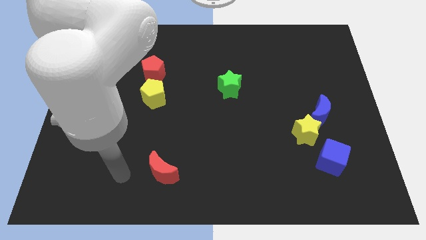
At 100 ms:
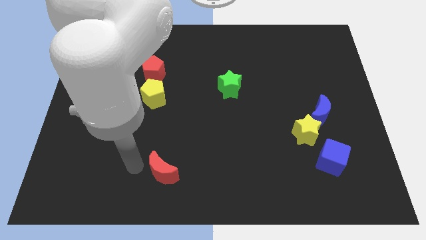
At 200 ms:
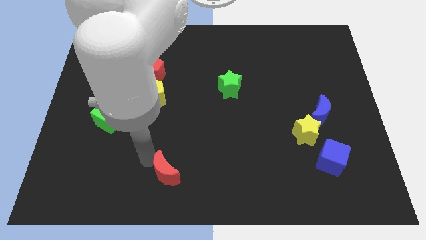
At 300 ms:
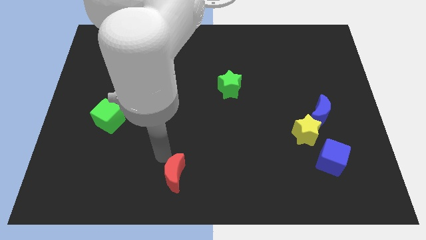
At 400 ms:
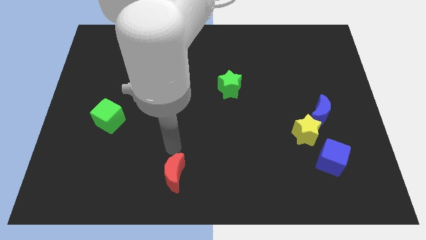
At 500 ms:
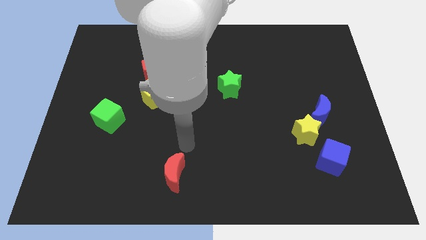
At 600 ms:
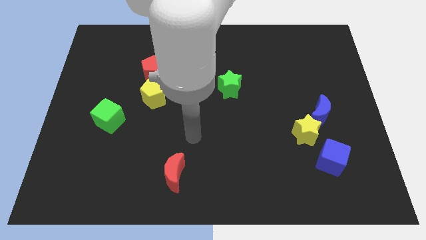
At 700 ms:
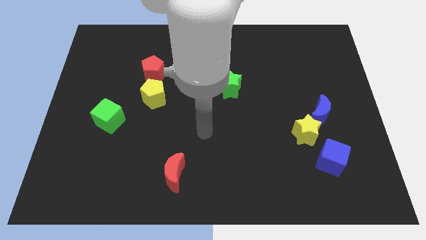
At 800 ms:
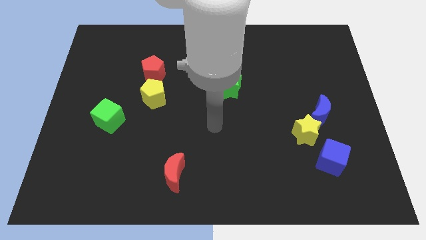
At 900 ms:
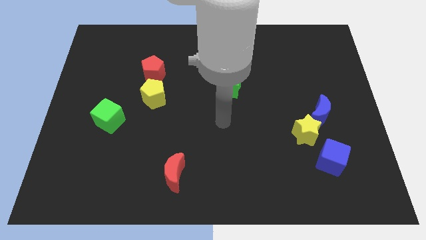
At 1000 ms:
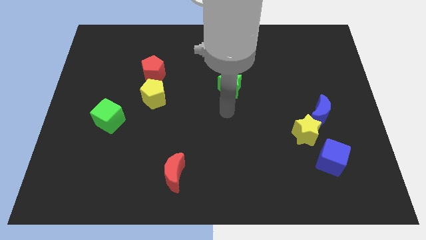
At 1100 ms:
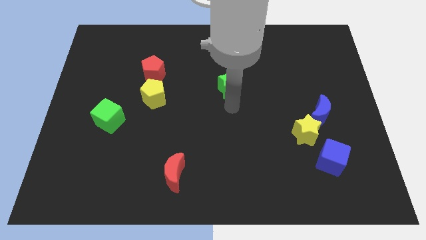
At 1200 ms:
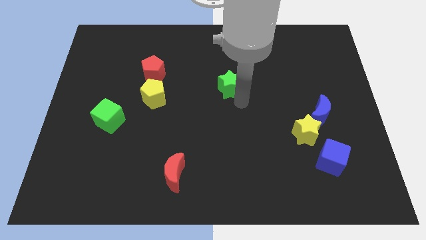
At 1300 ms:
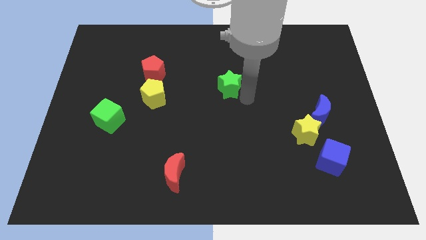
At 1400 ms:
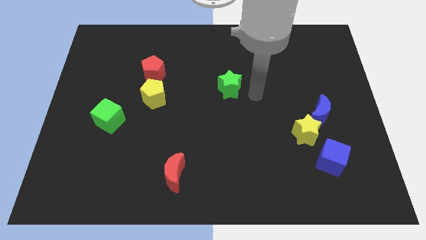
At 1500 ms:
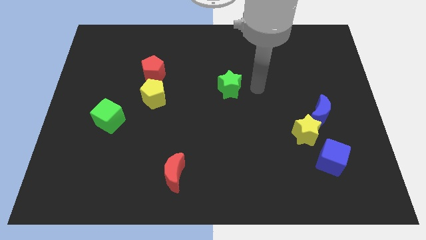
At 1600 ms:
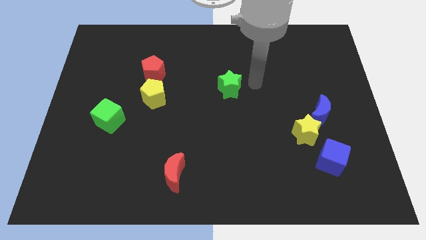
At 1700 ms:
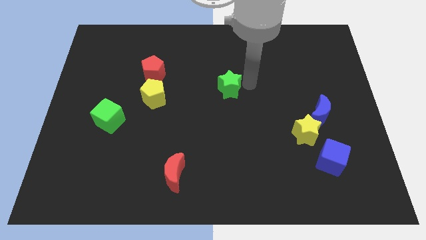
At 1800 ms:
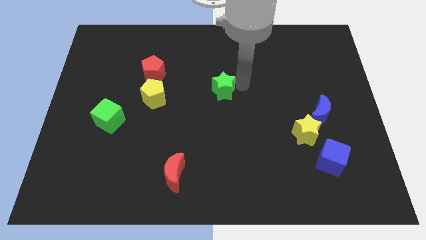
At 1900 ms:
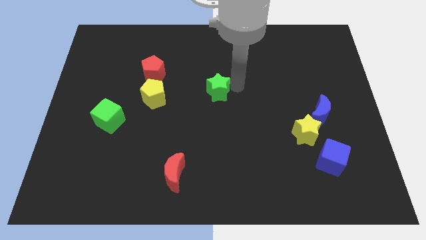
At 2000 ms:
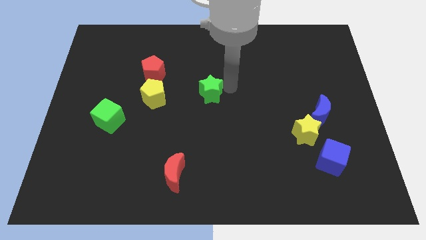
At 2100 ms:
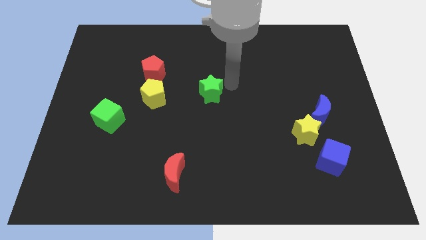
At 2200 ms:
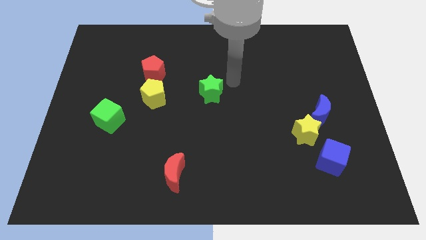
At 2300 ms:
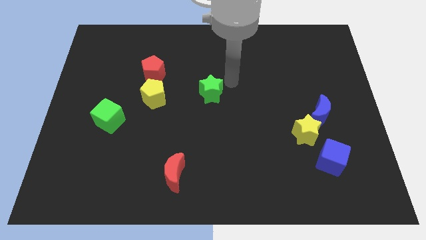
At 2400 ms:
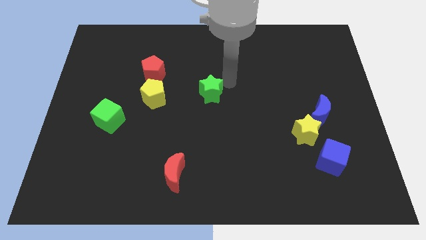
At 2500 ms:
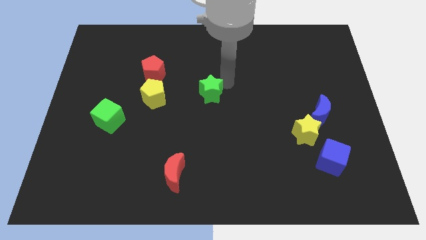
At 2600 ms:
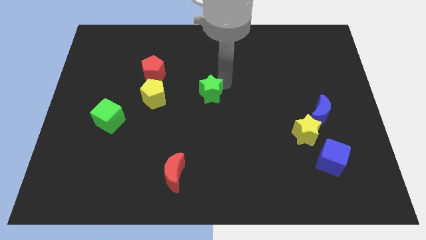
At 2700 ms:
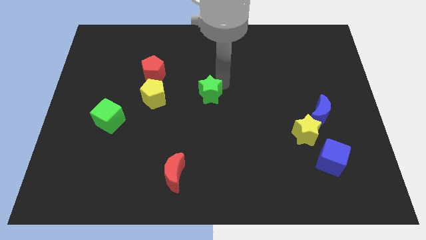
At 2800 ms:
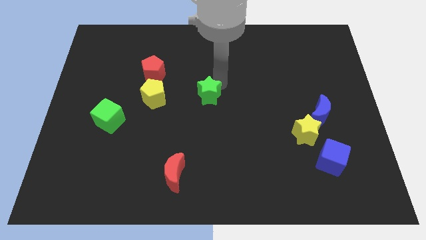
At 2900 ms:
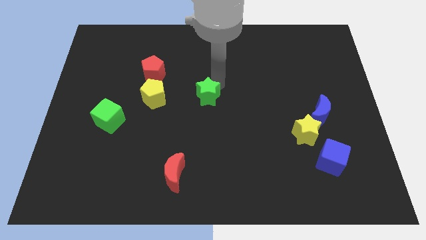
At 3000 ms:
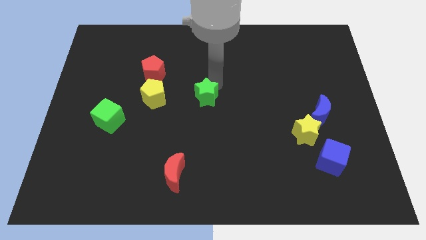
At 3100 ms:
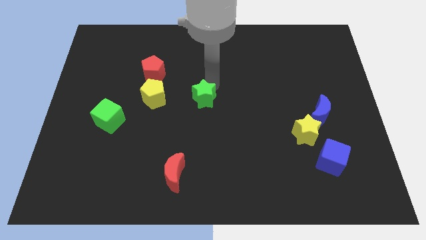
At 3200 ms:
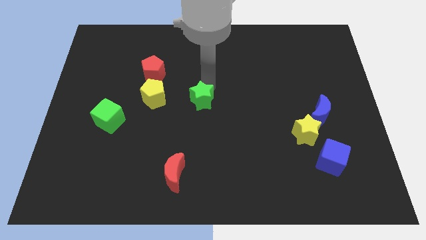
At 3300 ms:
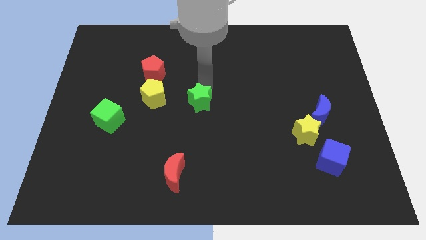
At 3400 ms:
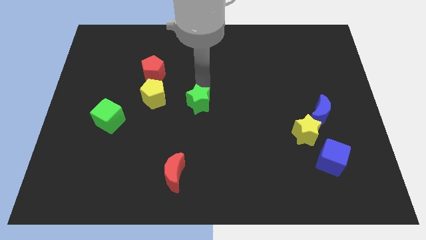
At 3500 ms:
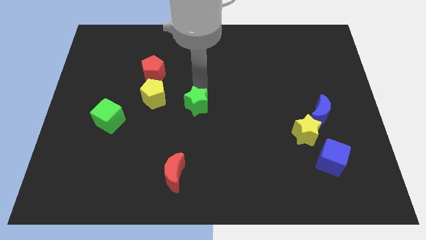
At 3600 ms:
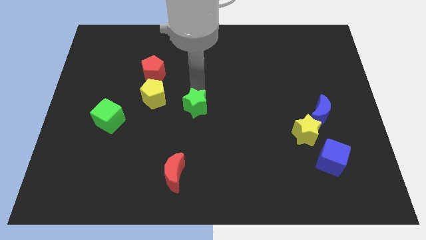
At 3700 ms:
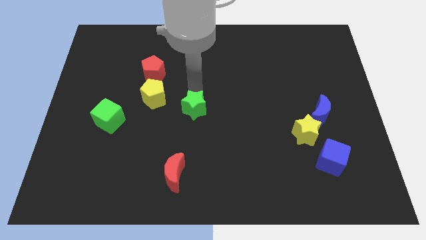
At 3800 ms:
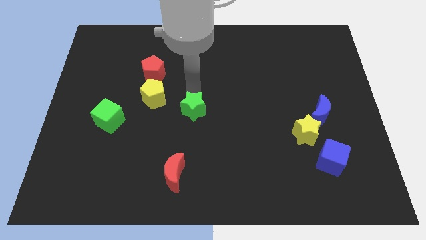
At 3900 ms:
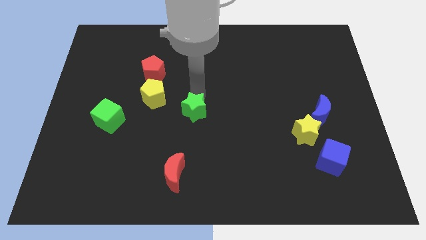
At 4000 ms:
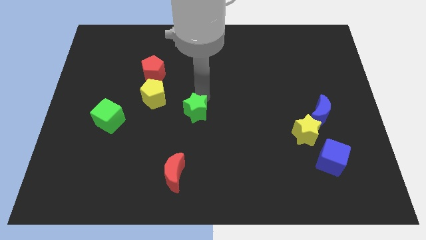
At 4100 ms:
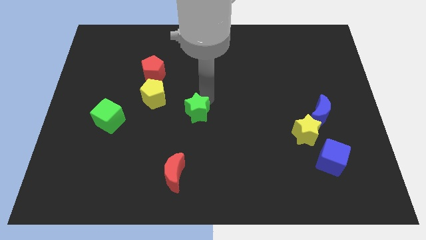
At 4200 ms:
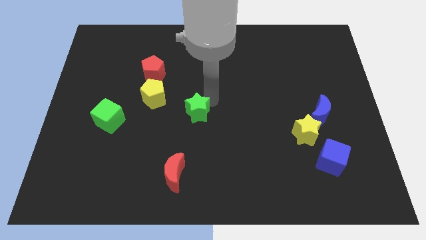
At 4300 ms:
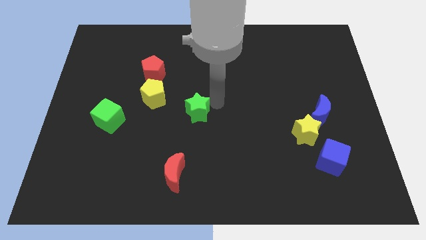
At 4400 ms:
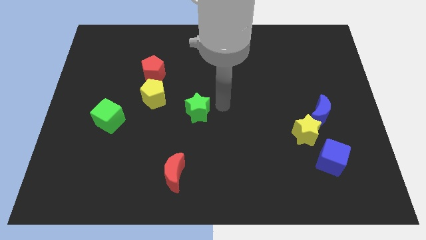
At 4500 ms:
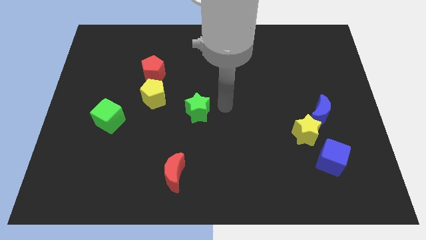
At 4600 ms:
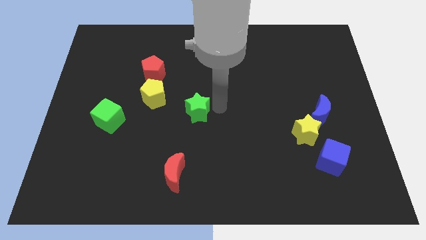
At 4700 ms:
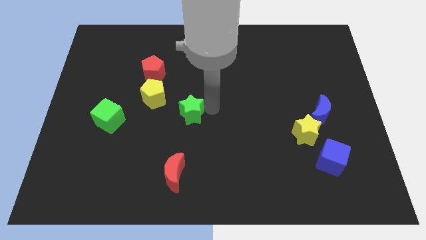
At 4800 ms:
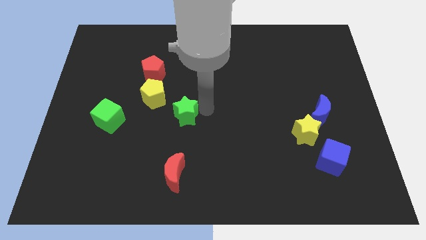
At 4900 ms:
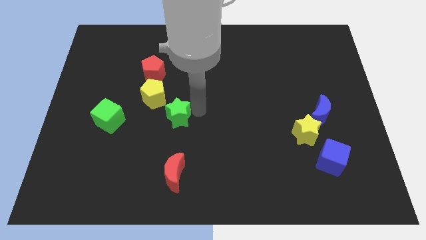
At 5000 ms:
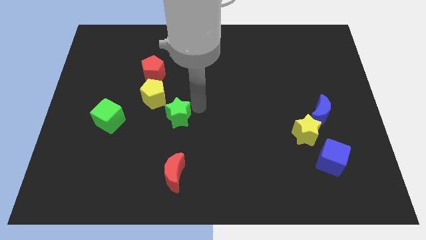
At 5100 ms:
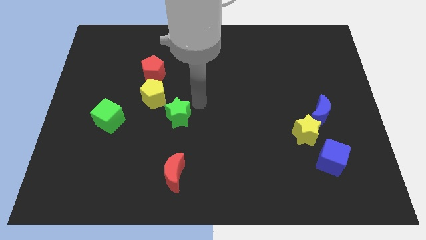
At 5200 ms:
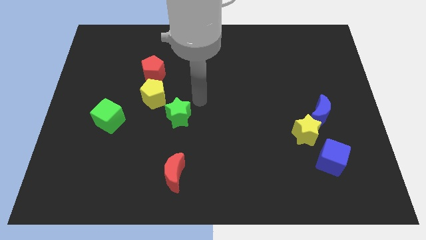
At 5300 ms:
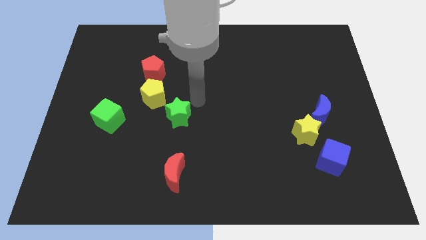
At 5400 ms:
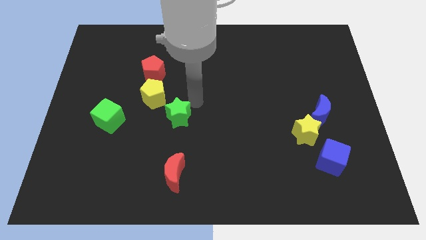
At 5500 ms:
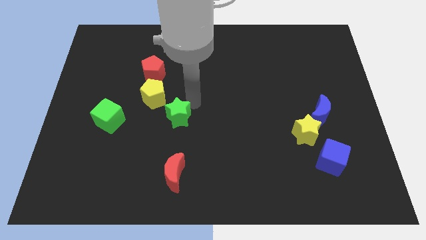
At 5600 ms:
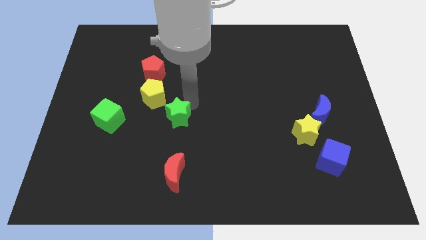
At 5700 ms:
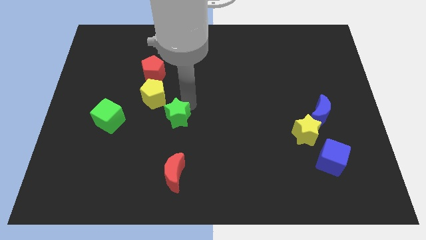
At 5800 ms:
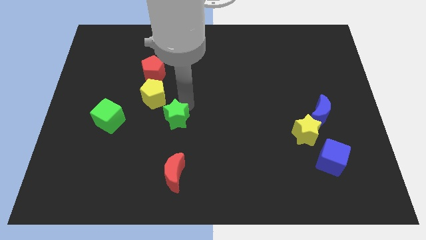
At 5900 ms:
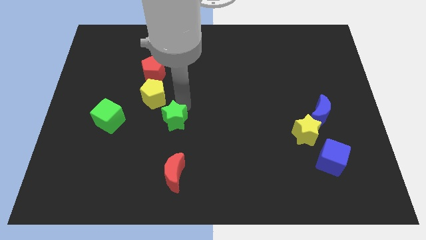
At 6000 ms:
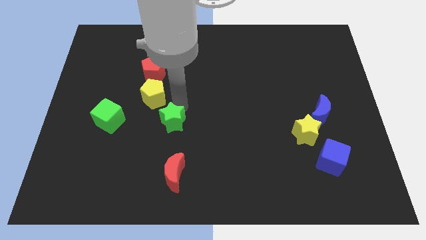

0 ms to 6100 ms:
slide the green star below the yellow pentagon

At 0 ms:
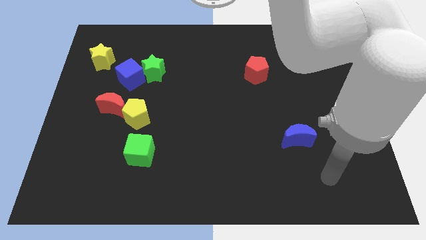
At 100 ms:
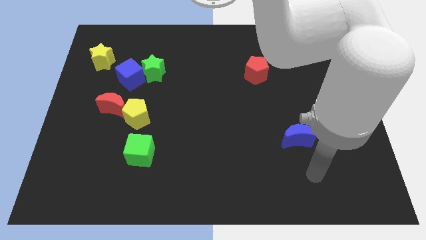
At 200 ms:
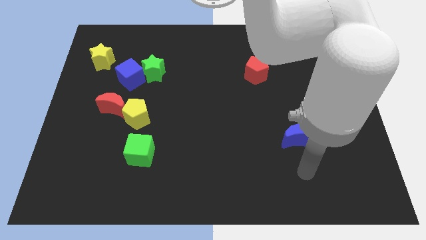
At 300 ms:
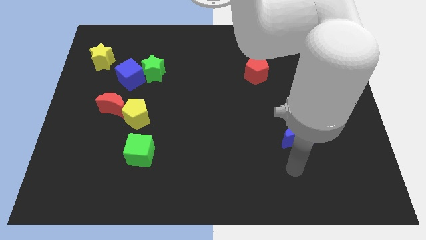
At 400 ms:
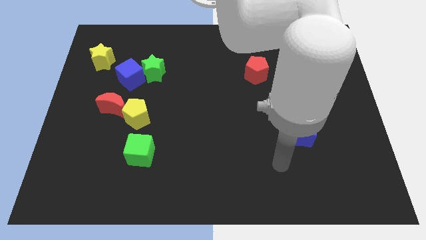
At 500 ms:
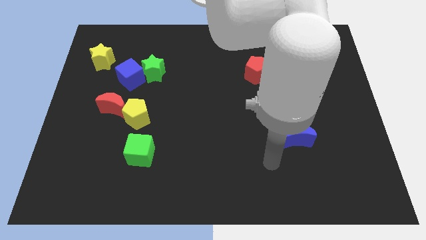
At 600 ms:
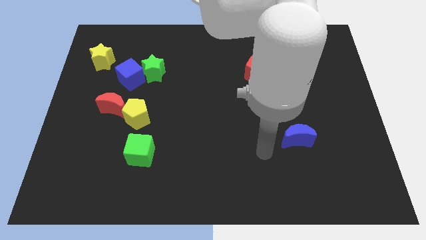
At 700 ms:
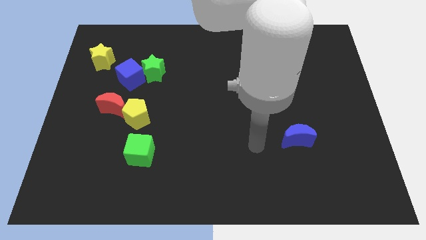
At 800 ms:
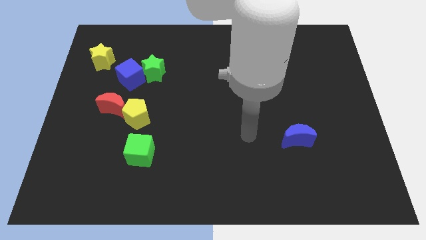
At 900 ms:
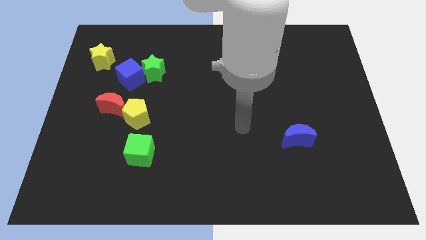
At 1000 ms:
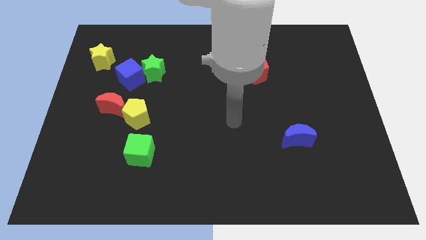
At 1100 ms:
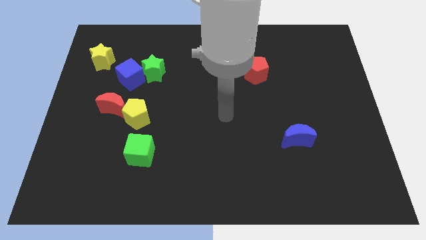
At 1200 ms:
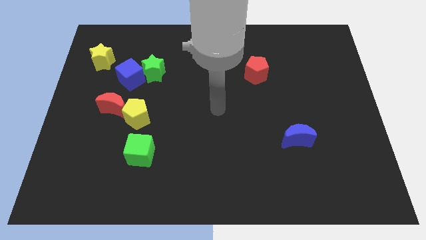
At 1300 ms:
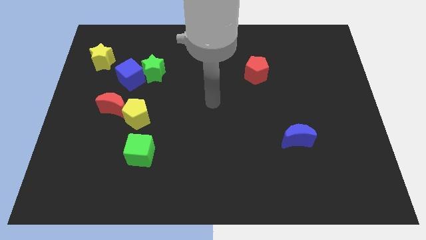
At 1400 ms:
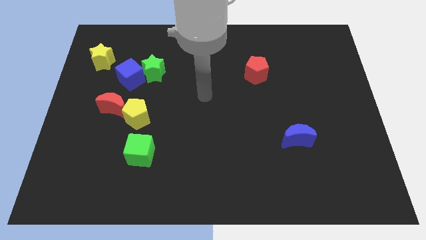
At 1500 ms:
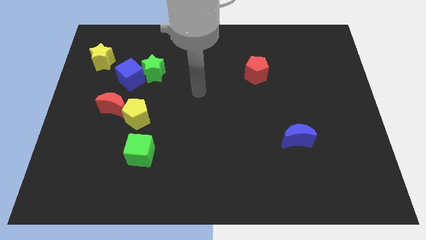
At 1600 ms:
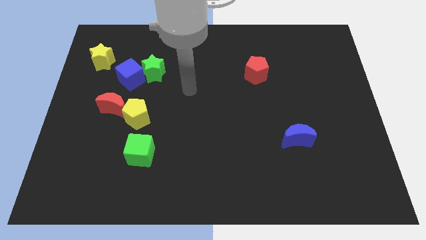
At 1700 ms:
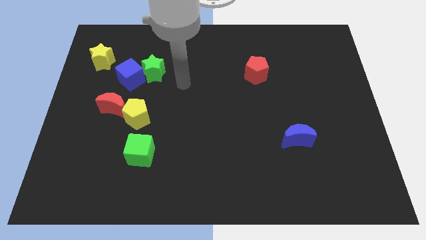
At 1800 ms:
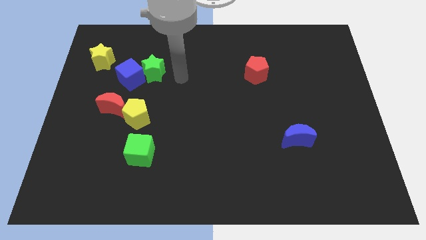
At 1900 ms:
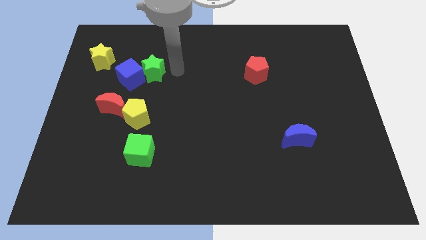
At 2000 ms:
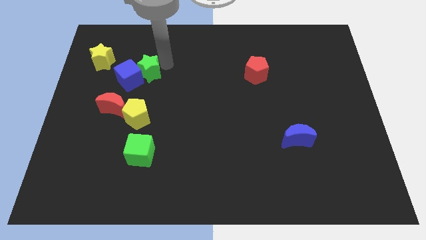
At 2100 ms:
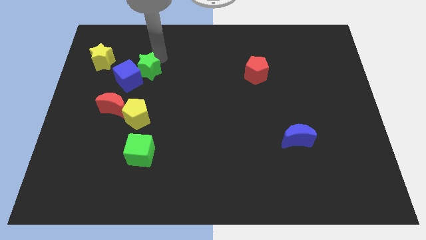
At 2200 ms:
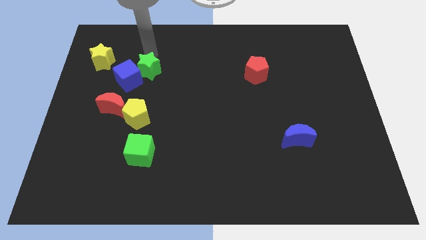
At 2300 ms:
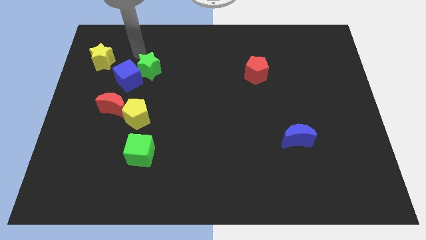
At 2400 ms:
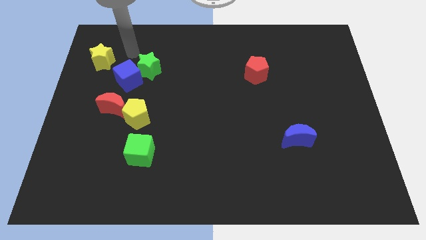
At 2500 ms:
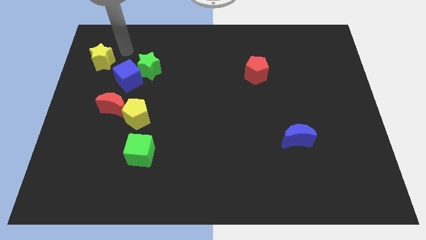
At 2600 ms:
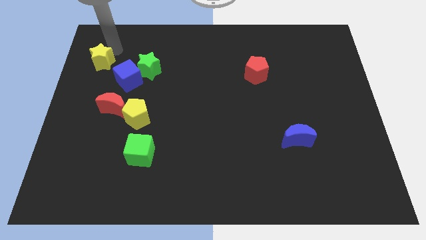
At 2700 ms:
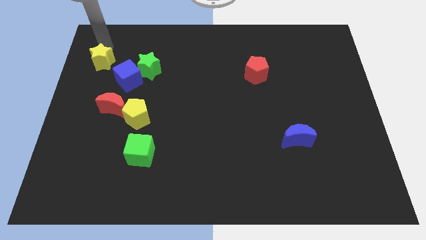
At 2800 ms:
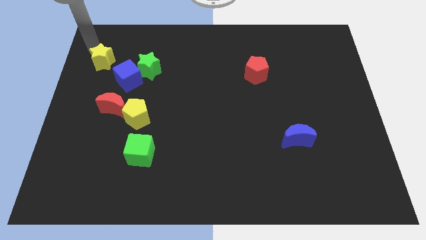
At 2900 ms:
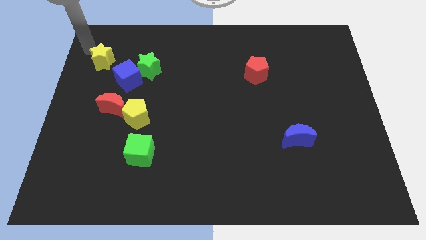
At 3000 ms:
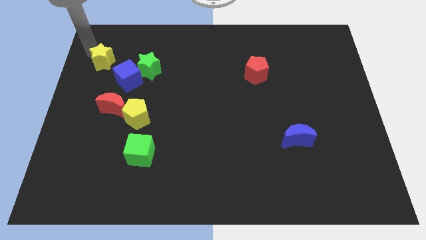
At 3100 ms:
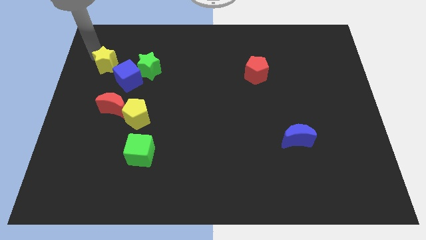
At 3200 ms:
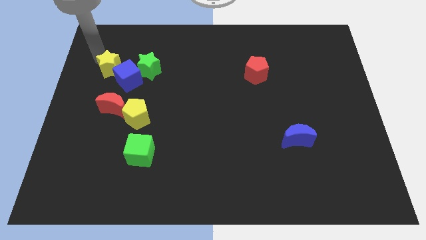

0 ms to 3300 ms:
put the yellow star to the top of the red moon
